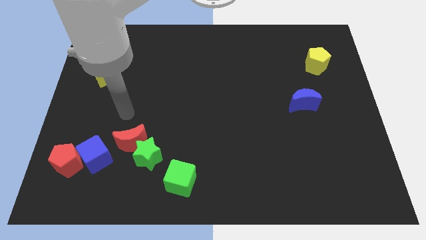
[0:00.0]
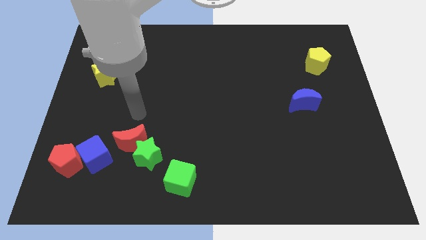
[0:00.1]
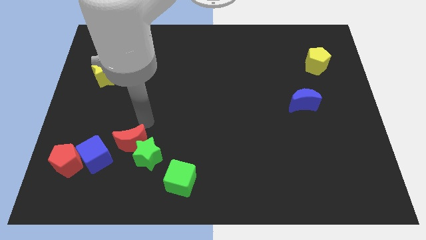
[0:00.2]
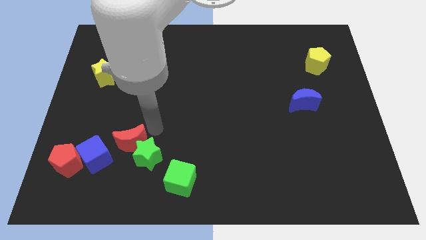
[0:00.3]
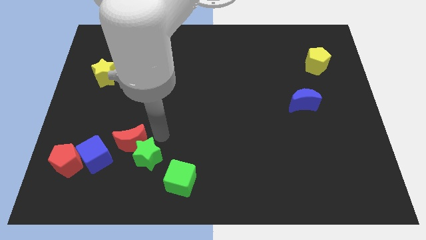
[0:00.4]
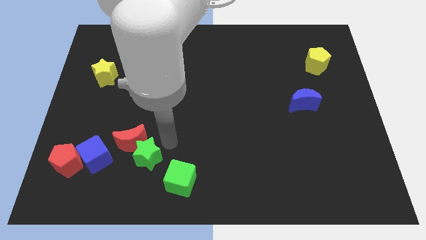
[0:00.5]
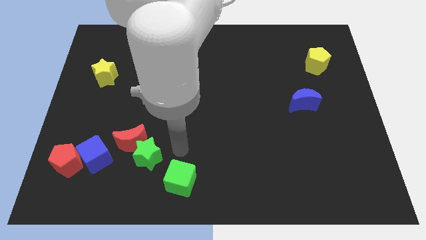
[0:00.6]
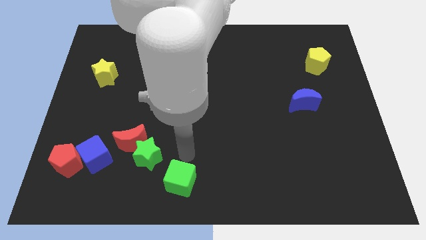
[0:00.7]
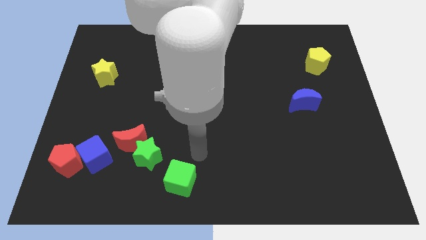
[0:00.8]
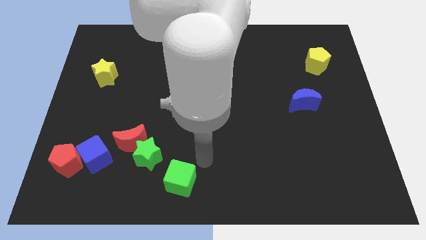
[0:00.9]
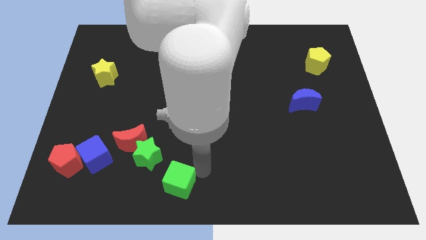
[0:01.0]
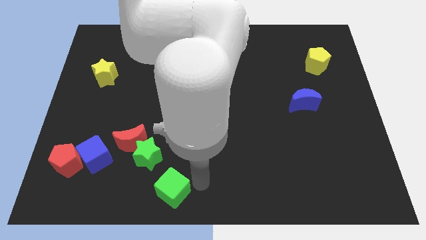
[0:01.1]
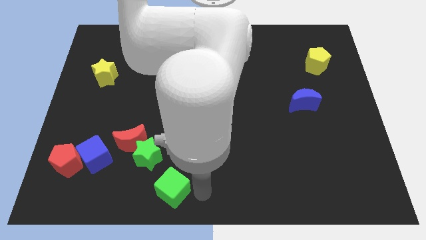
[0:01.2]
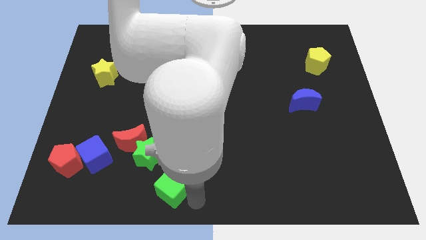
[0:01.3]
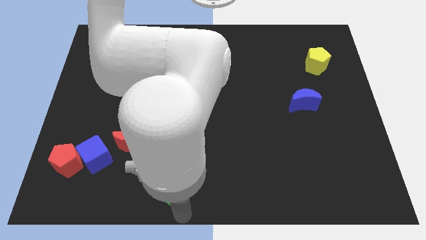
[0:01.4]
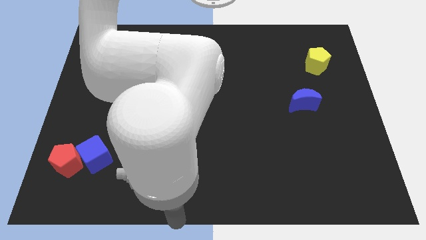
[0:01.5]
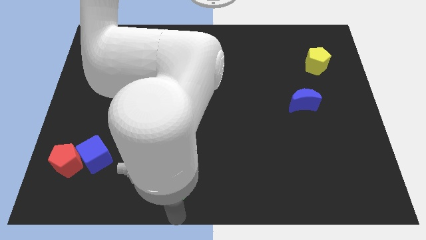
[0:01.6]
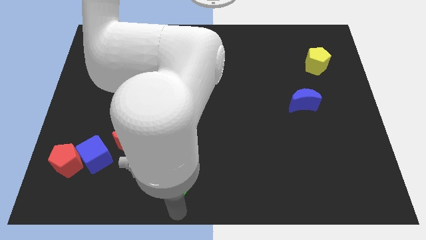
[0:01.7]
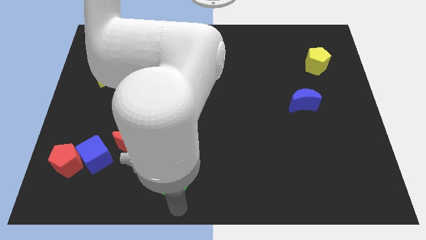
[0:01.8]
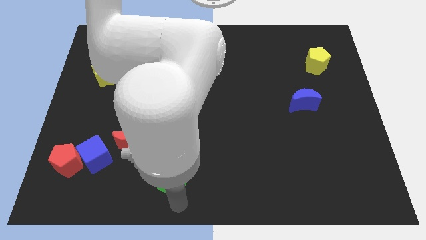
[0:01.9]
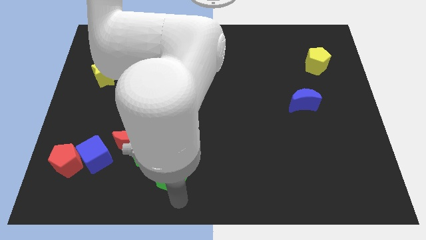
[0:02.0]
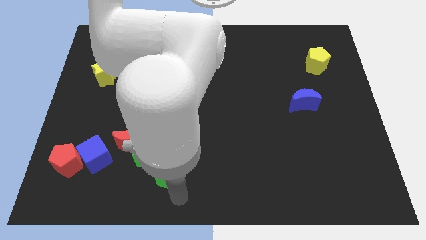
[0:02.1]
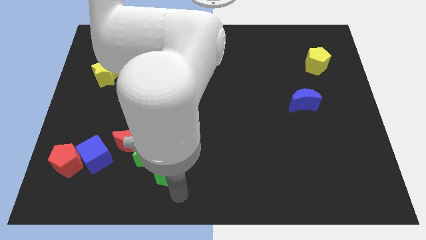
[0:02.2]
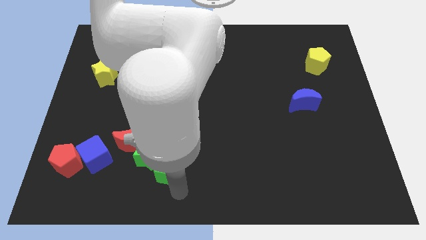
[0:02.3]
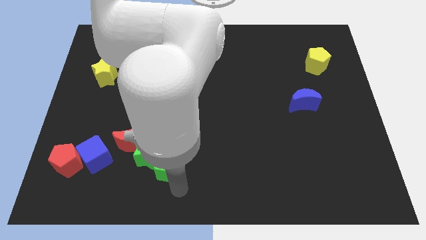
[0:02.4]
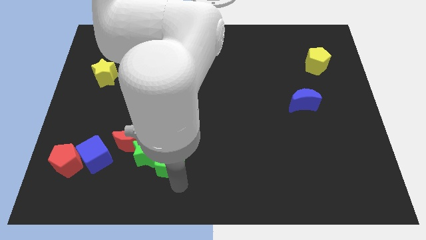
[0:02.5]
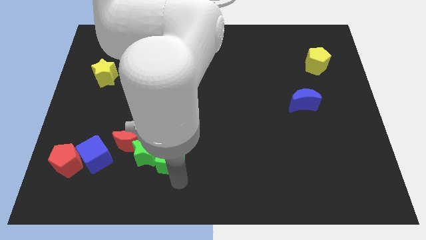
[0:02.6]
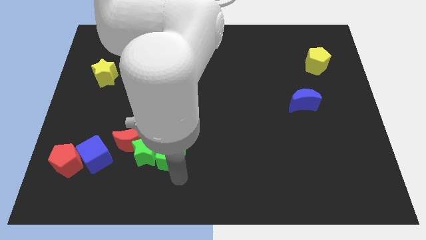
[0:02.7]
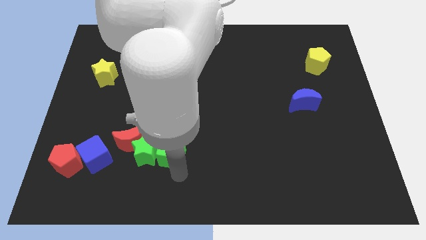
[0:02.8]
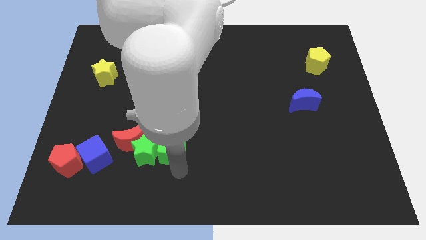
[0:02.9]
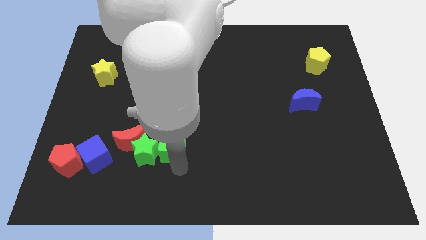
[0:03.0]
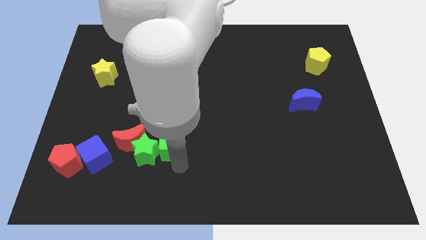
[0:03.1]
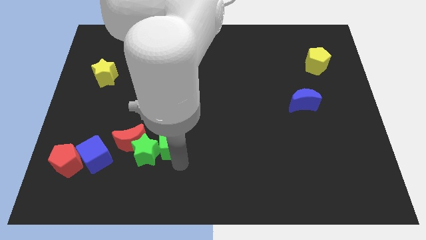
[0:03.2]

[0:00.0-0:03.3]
move the green cube slightly diagonally upwards and to the left

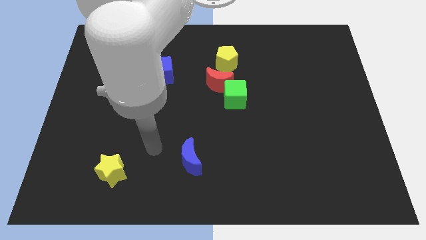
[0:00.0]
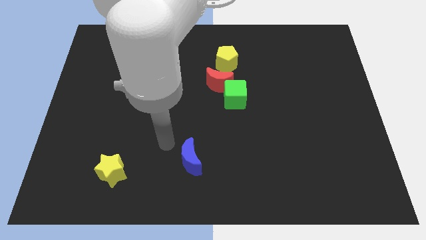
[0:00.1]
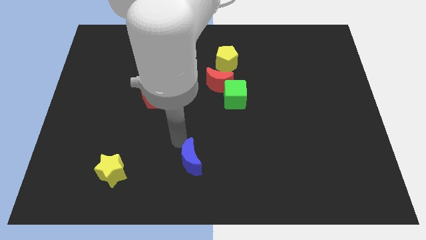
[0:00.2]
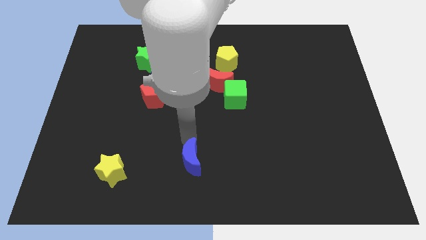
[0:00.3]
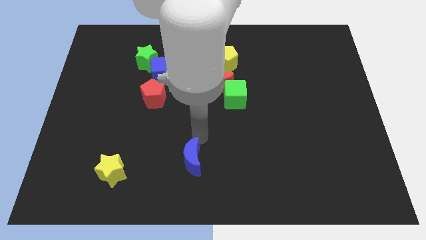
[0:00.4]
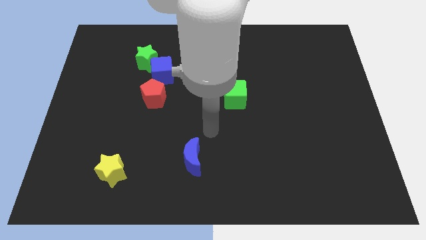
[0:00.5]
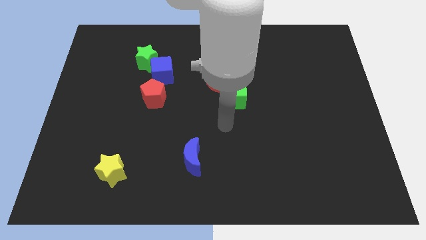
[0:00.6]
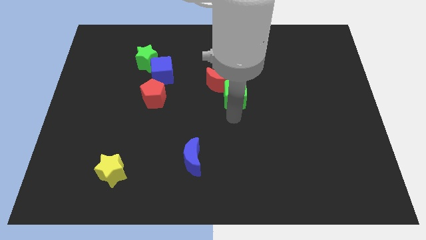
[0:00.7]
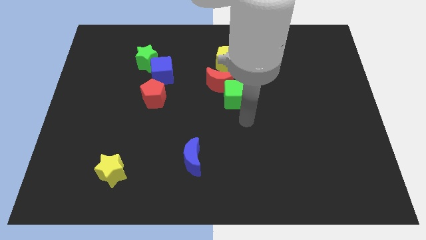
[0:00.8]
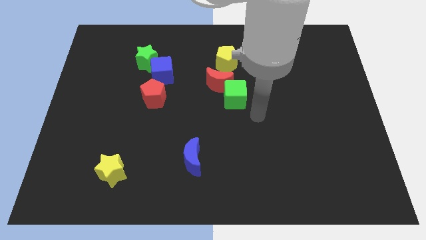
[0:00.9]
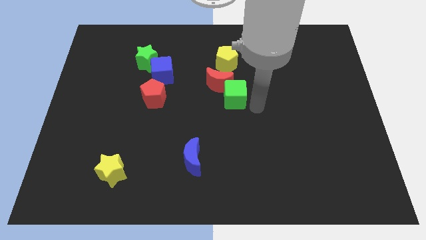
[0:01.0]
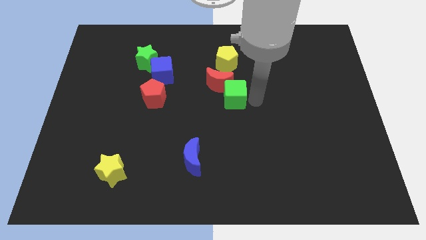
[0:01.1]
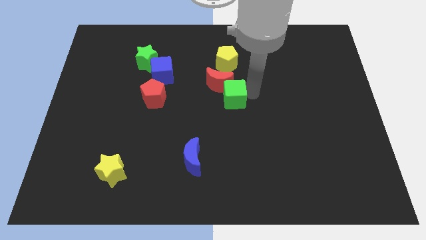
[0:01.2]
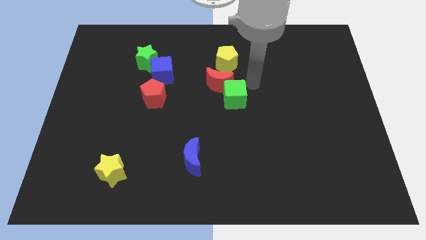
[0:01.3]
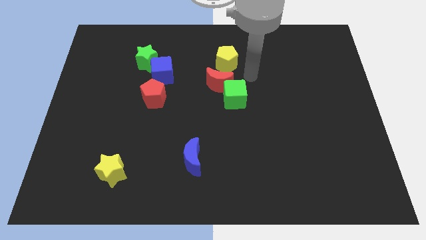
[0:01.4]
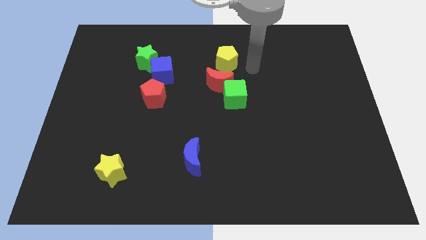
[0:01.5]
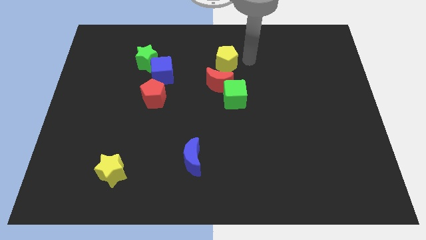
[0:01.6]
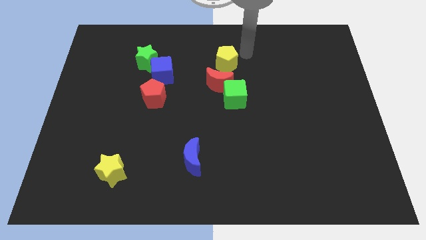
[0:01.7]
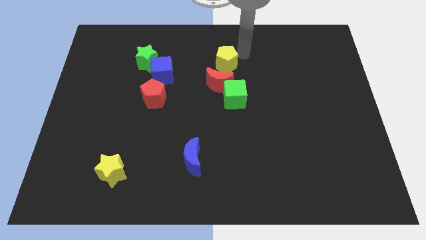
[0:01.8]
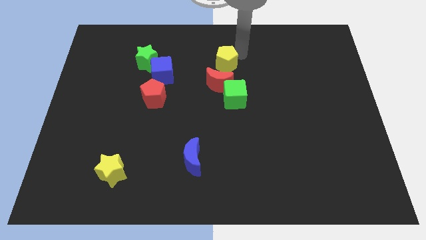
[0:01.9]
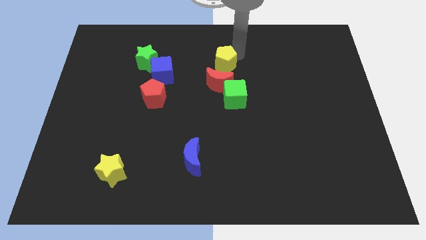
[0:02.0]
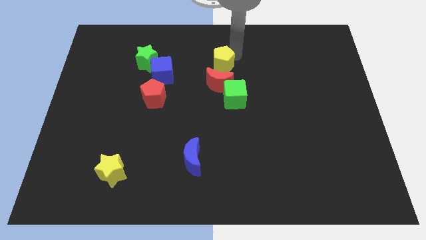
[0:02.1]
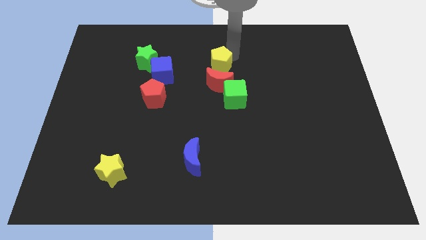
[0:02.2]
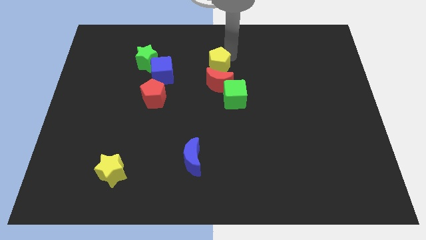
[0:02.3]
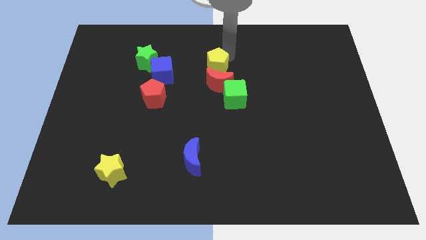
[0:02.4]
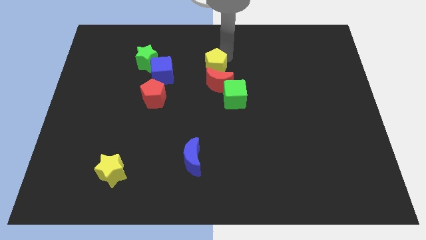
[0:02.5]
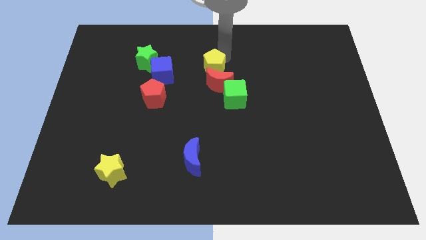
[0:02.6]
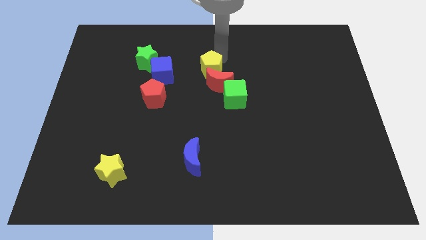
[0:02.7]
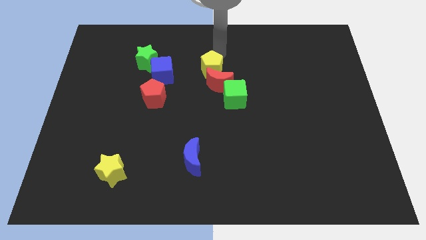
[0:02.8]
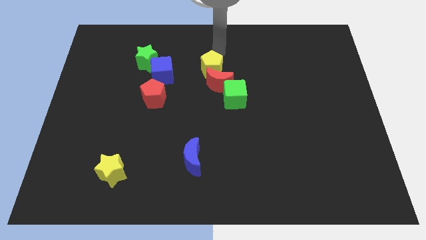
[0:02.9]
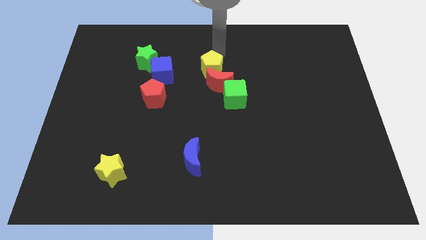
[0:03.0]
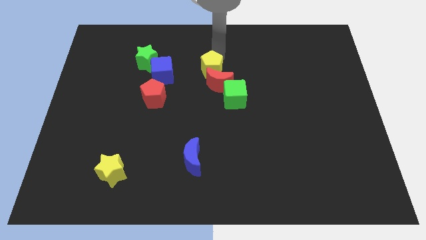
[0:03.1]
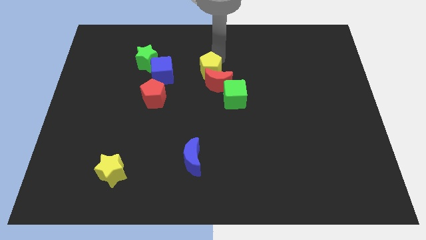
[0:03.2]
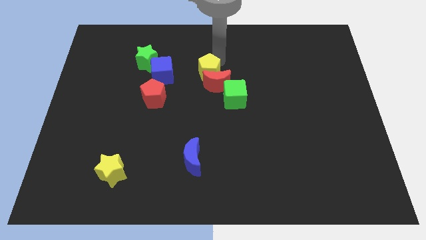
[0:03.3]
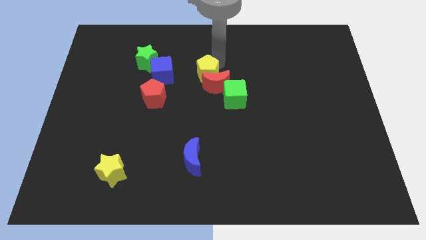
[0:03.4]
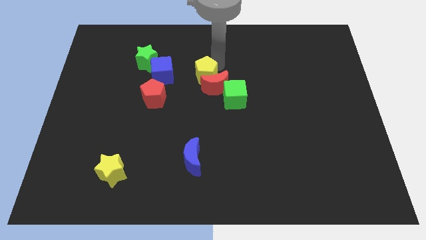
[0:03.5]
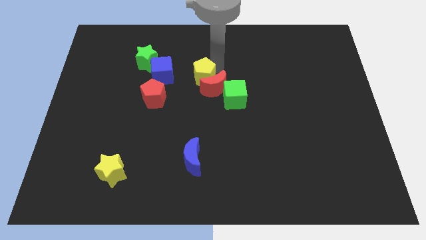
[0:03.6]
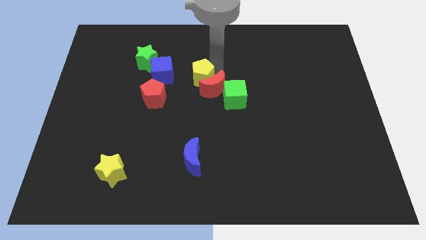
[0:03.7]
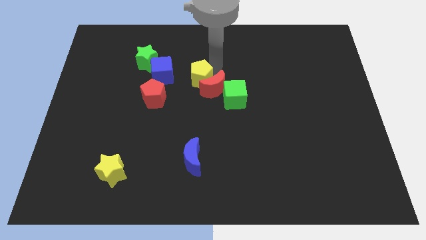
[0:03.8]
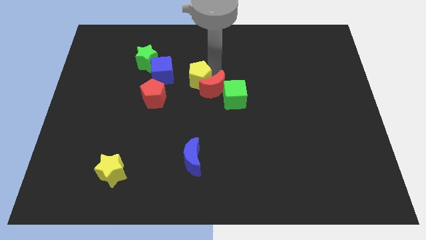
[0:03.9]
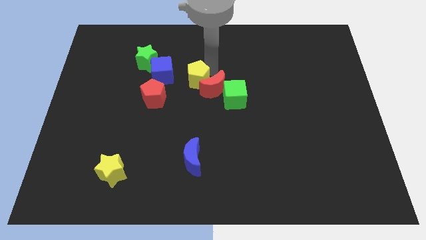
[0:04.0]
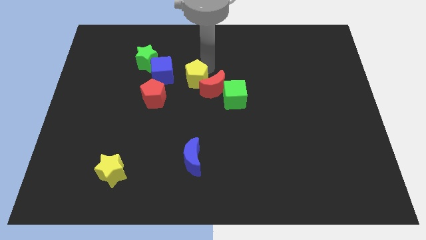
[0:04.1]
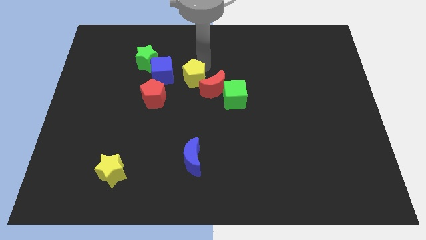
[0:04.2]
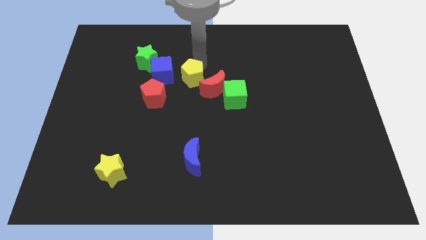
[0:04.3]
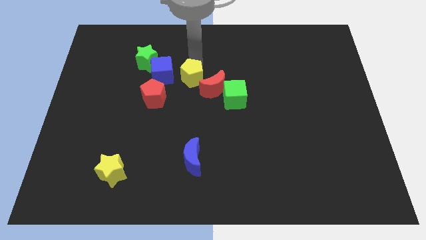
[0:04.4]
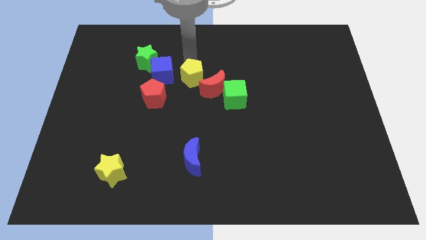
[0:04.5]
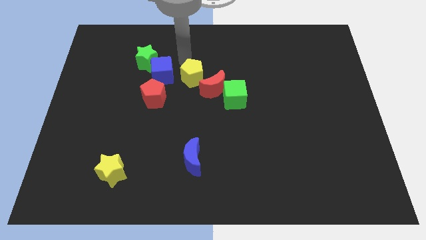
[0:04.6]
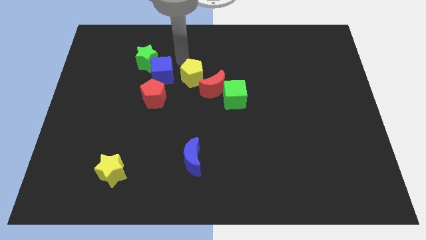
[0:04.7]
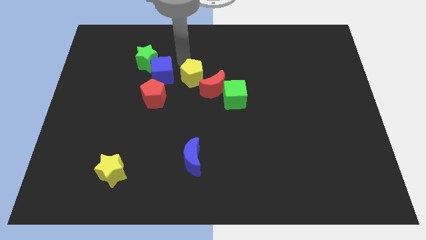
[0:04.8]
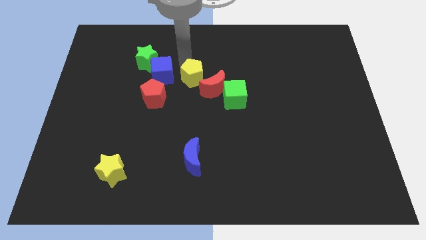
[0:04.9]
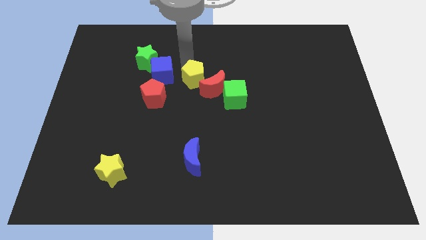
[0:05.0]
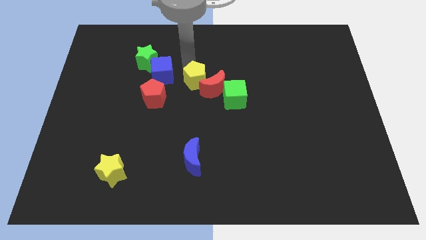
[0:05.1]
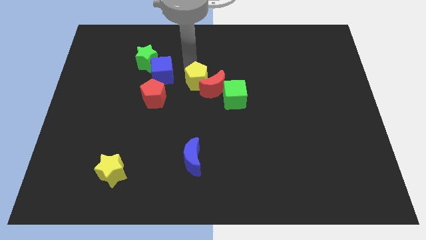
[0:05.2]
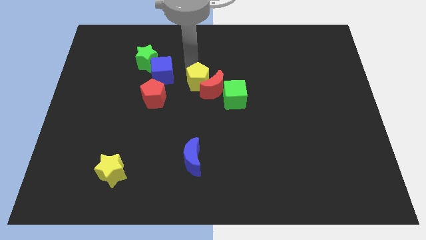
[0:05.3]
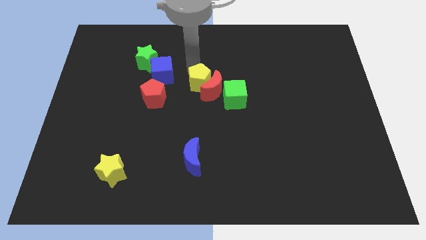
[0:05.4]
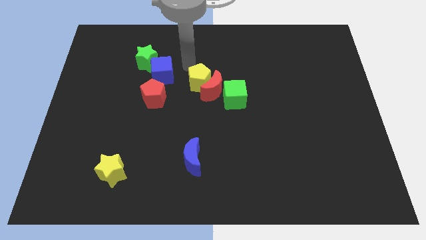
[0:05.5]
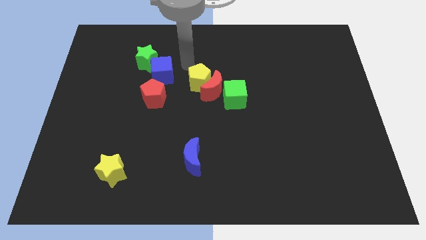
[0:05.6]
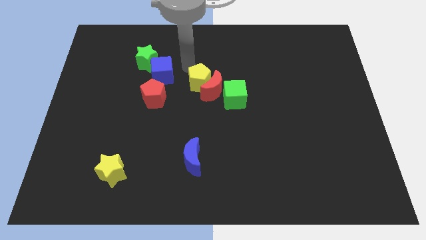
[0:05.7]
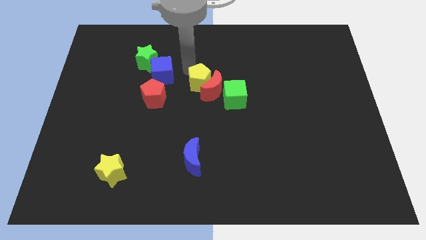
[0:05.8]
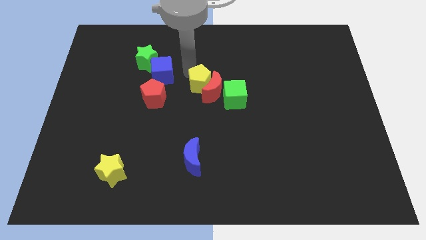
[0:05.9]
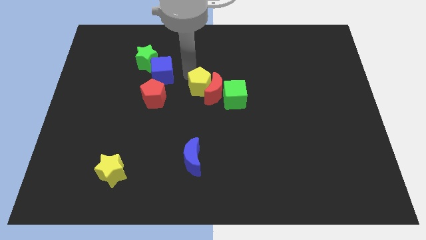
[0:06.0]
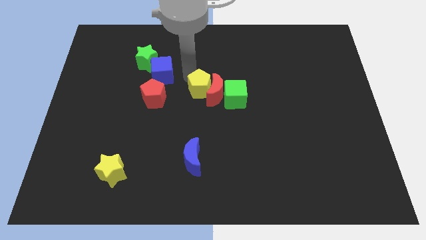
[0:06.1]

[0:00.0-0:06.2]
move the yellow pentagon somewhat downwards
